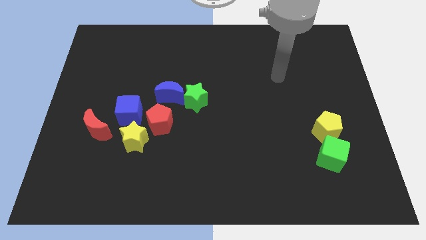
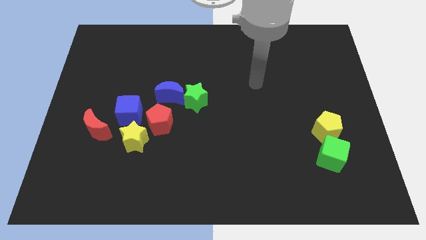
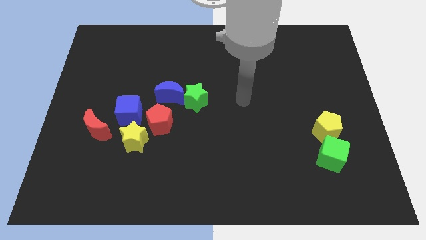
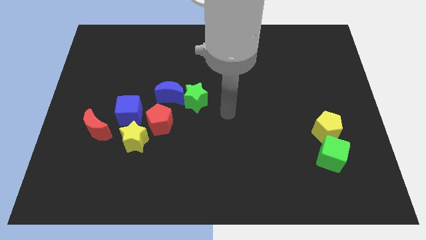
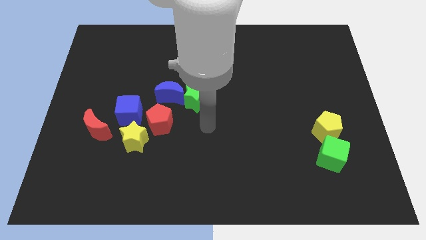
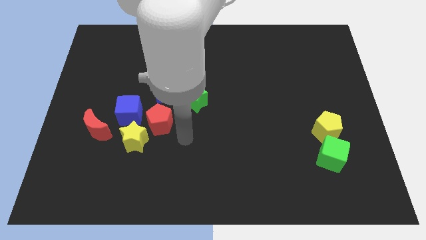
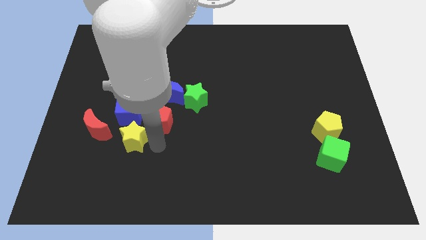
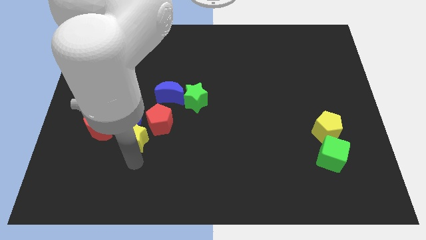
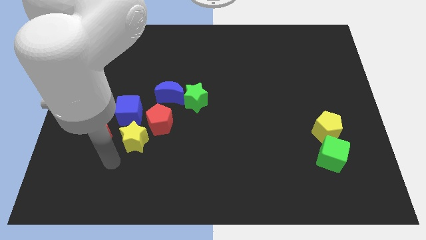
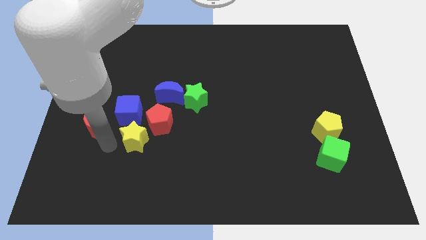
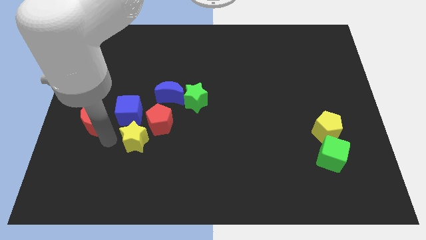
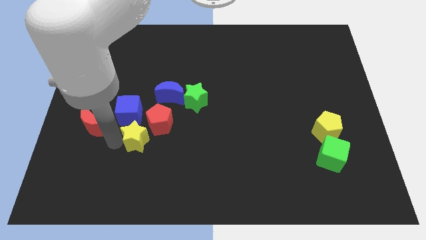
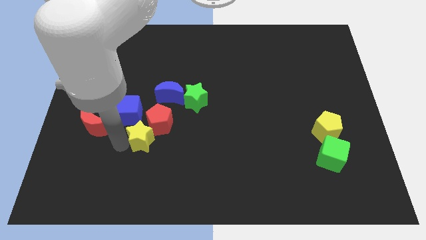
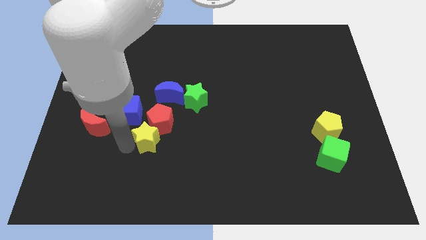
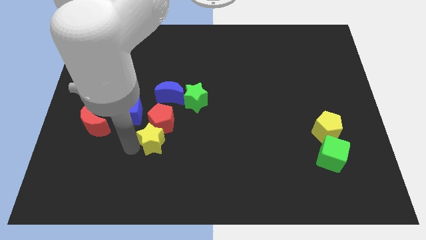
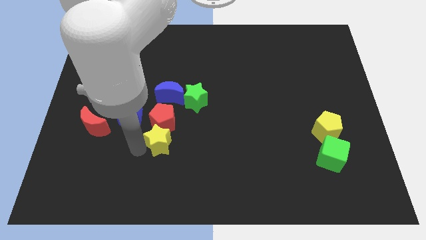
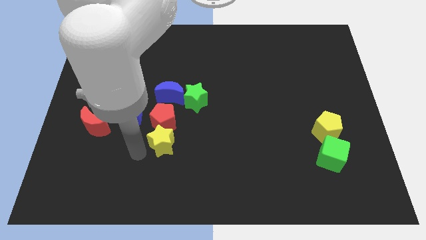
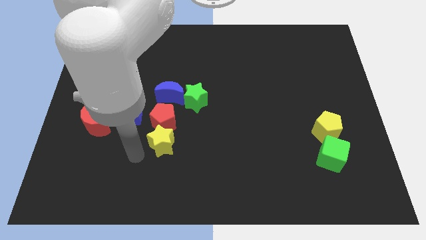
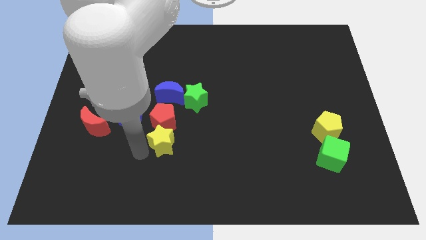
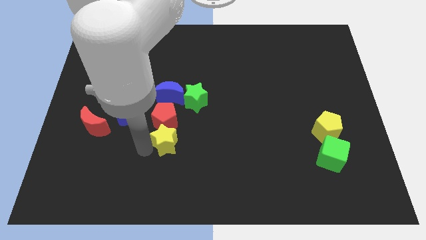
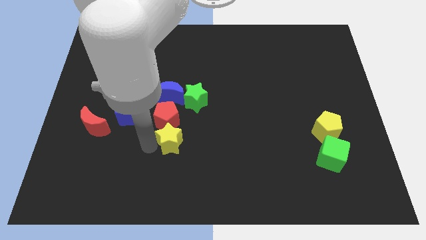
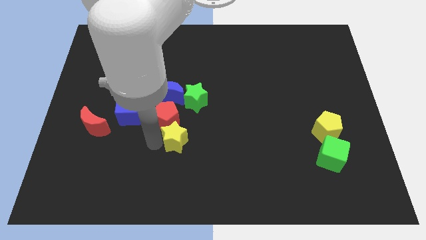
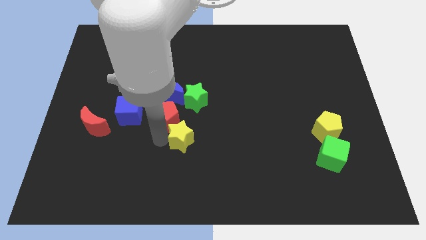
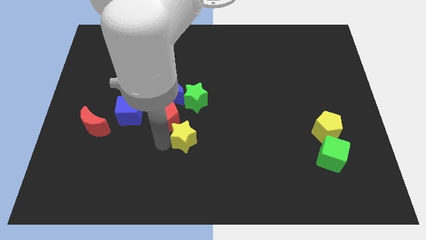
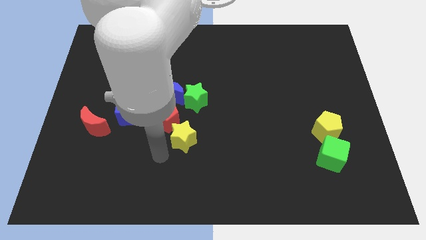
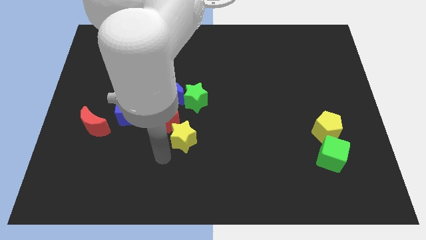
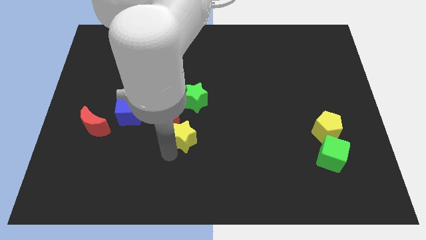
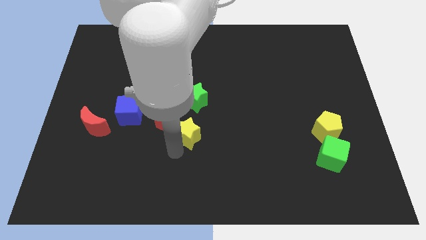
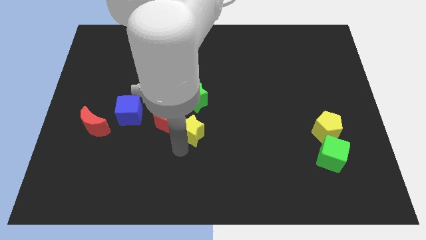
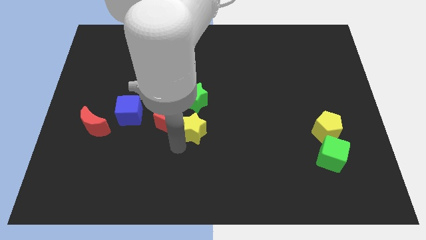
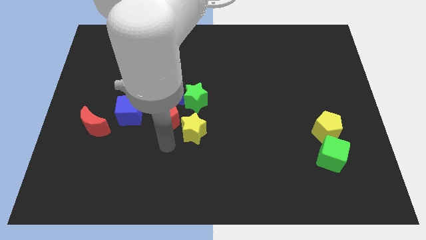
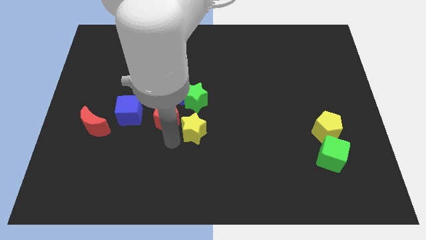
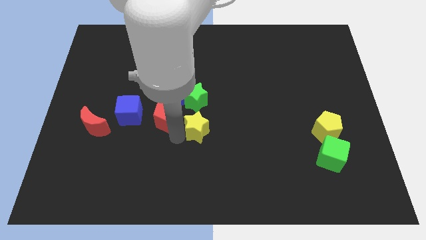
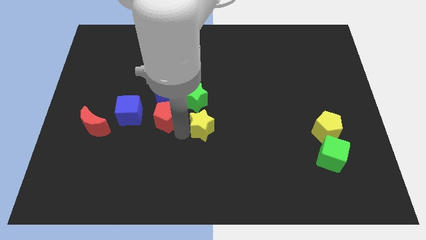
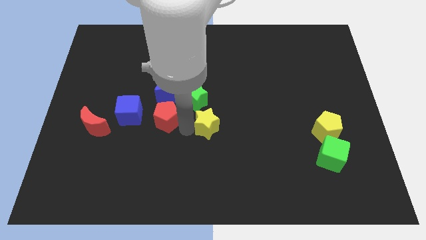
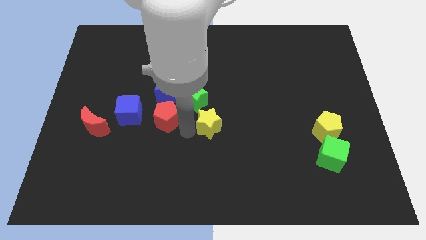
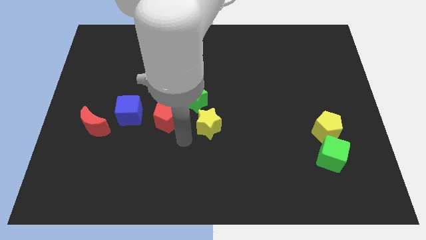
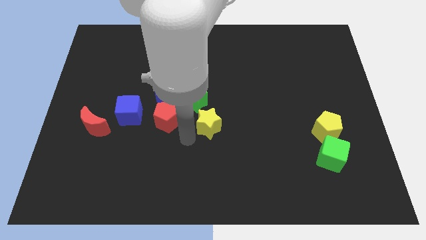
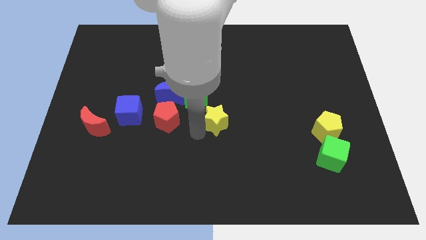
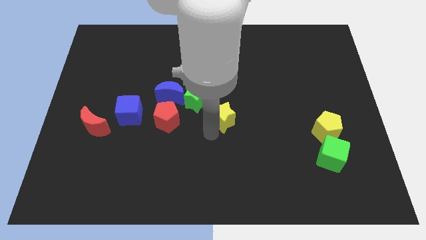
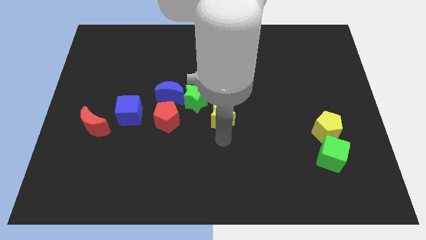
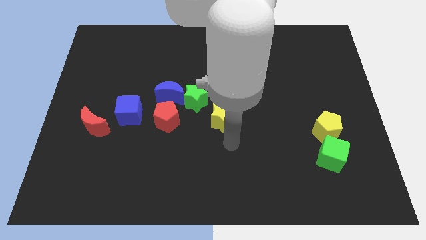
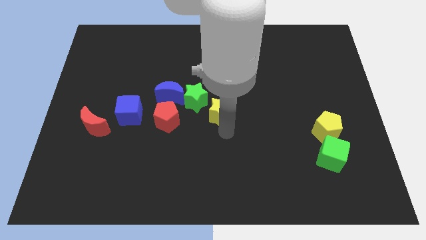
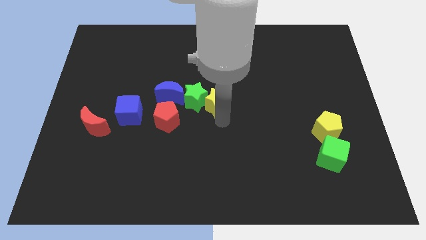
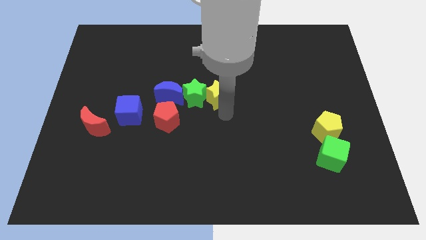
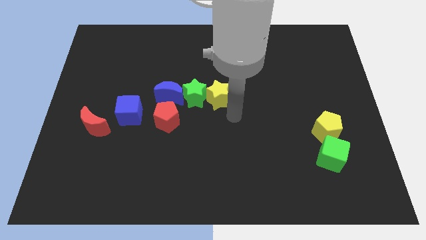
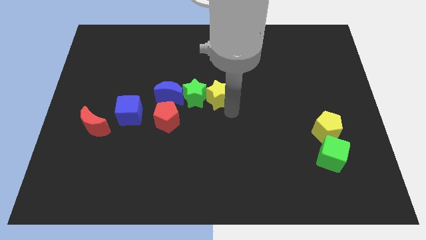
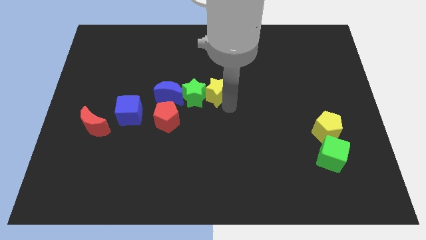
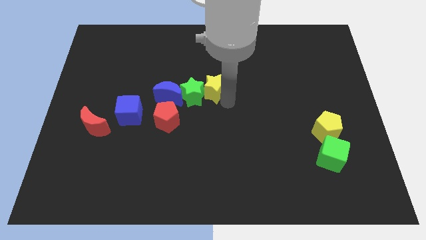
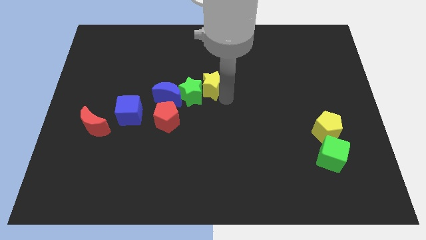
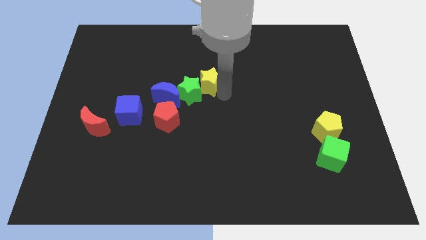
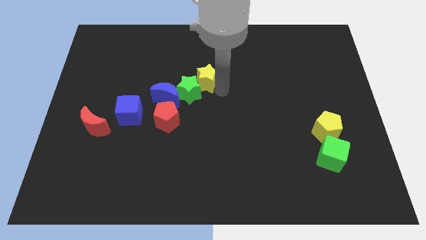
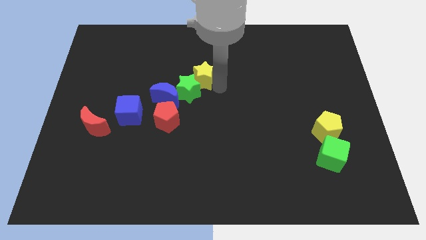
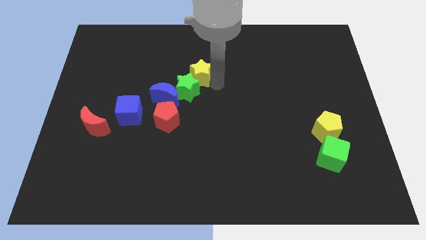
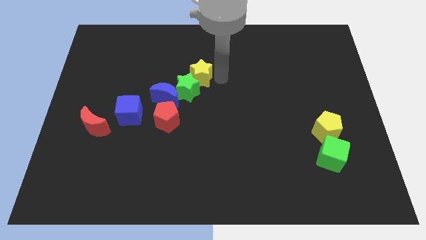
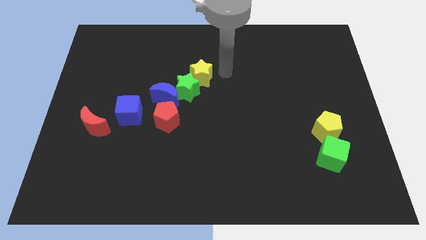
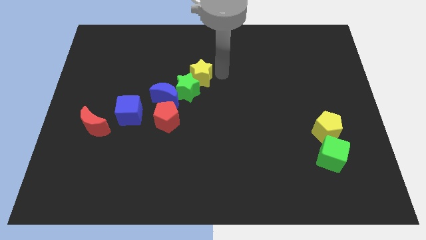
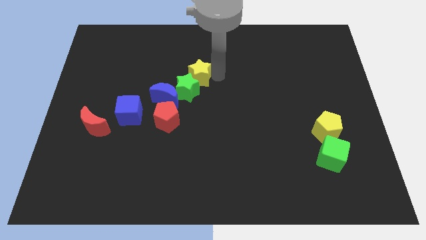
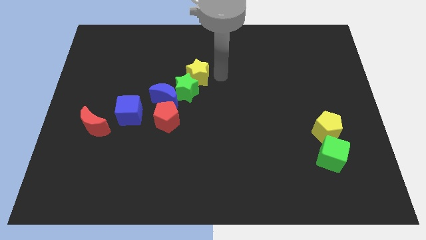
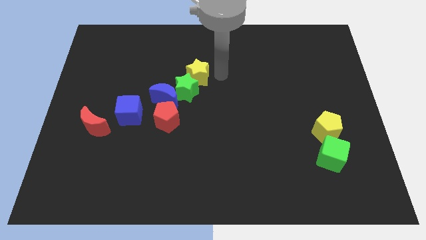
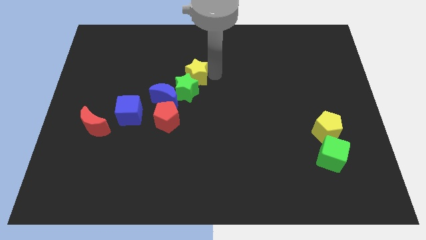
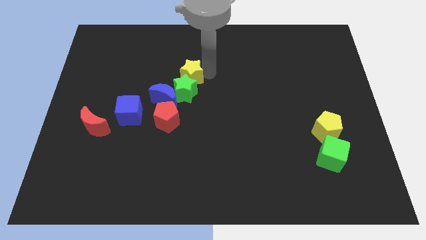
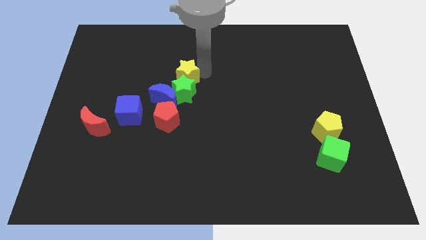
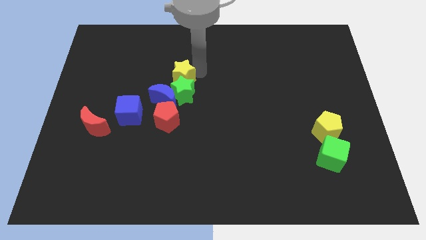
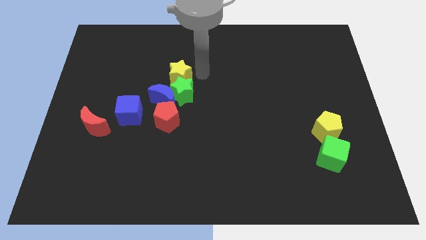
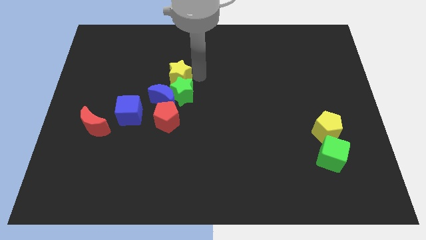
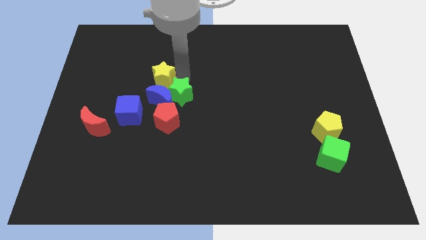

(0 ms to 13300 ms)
slide the yellow star to the top left side of the blue moon
